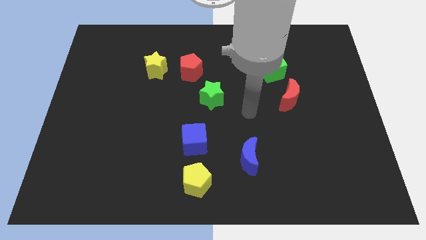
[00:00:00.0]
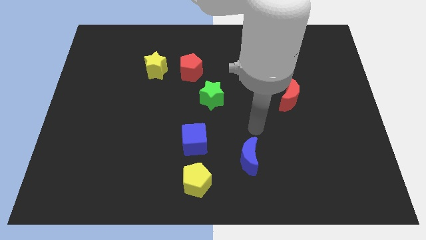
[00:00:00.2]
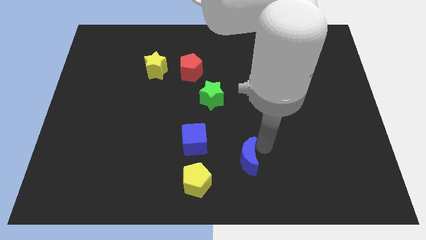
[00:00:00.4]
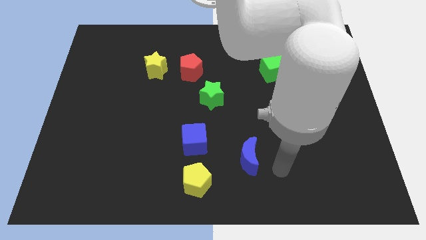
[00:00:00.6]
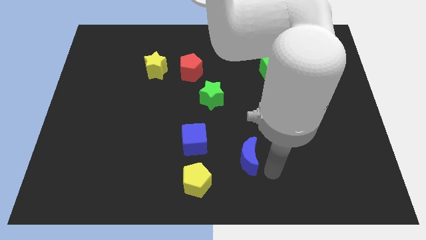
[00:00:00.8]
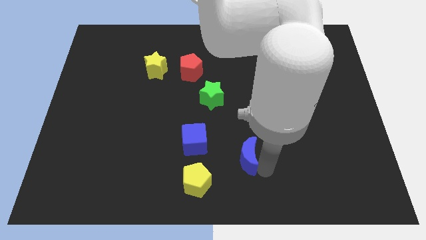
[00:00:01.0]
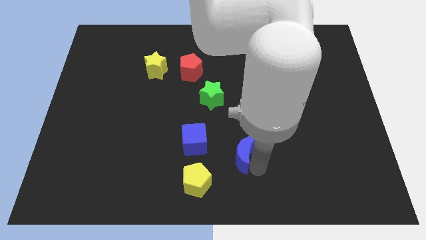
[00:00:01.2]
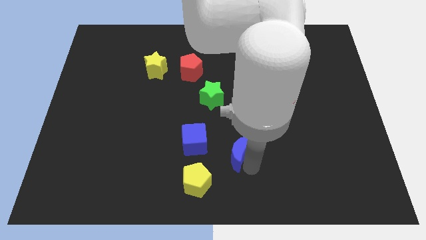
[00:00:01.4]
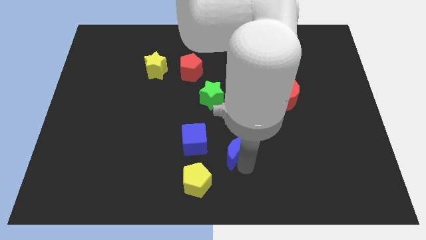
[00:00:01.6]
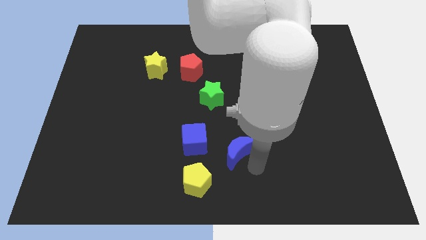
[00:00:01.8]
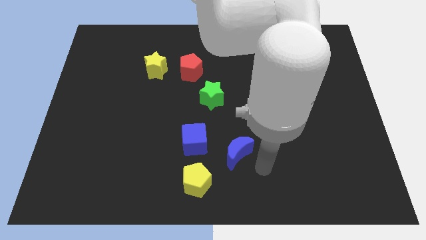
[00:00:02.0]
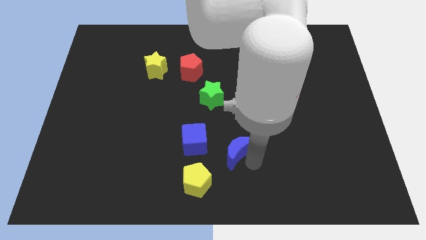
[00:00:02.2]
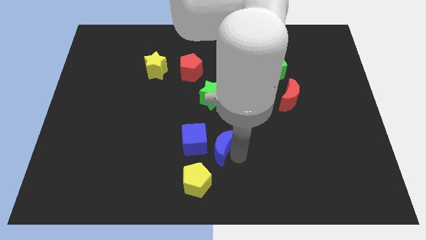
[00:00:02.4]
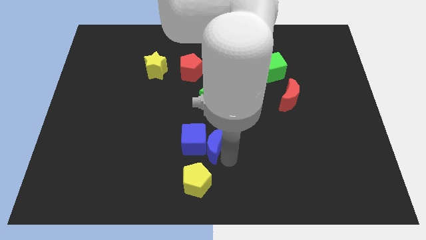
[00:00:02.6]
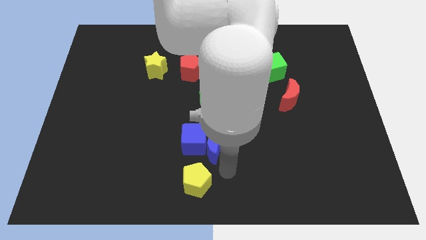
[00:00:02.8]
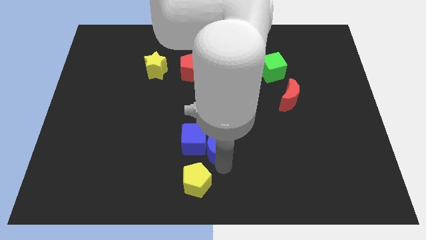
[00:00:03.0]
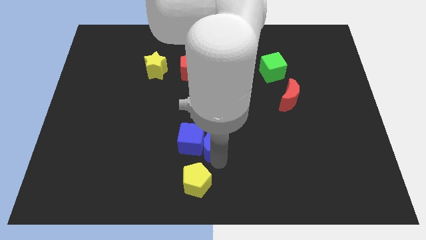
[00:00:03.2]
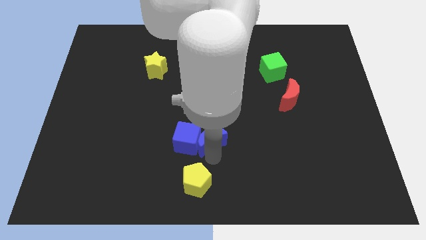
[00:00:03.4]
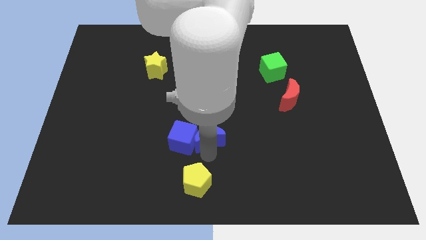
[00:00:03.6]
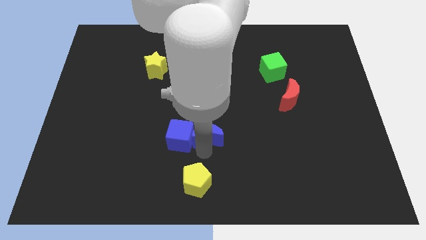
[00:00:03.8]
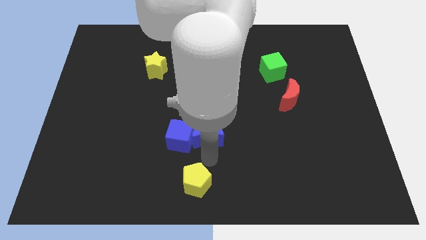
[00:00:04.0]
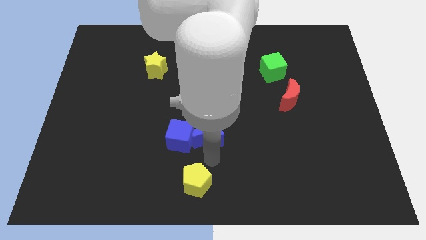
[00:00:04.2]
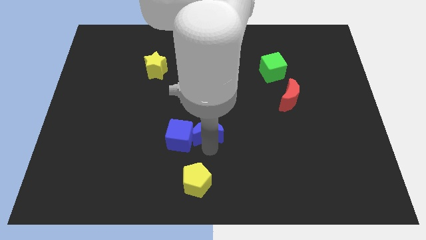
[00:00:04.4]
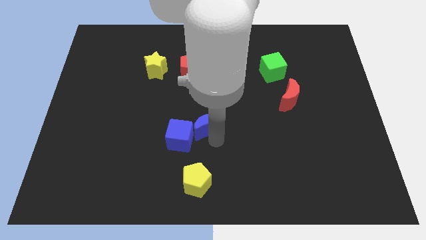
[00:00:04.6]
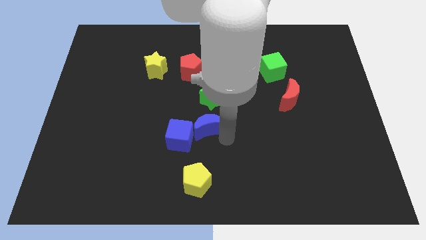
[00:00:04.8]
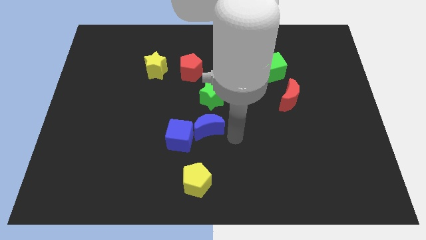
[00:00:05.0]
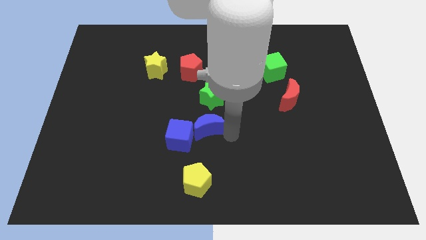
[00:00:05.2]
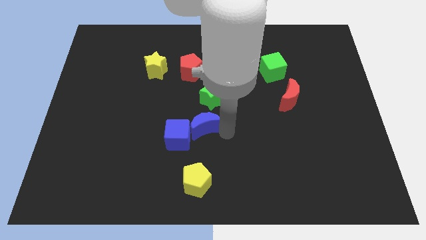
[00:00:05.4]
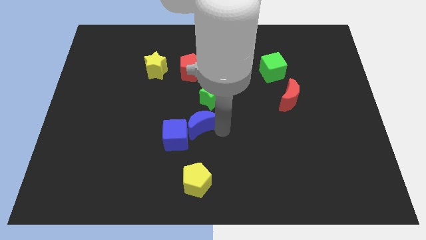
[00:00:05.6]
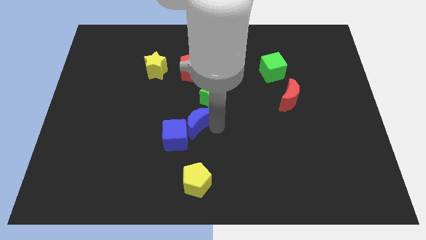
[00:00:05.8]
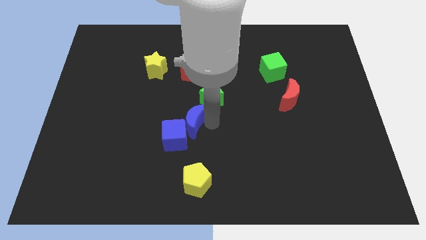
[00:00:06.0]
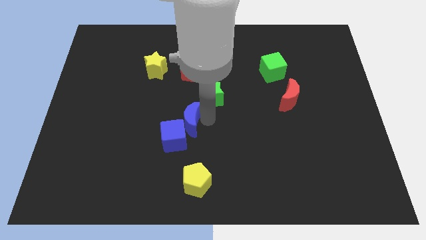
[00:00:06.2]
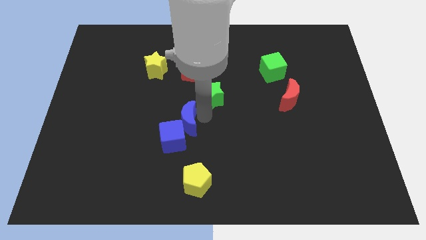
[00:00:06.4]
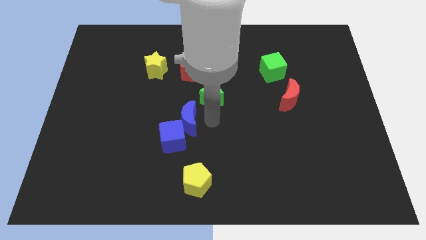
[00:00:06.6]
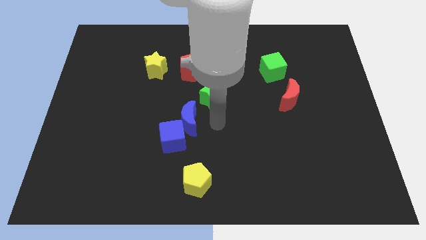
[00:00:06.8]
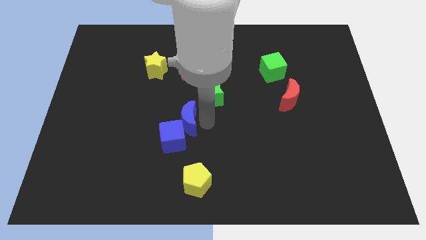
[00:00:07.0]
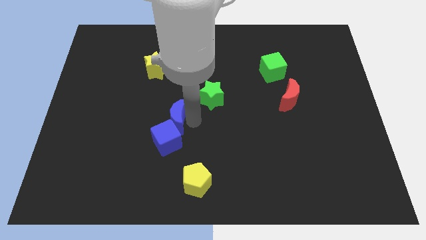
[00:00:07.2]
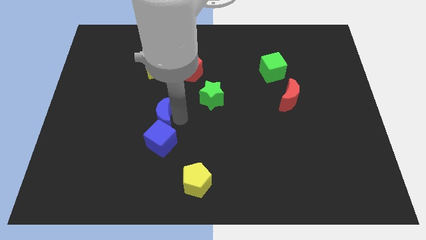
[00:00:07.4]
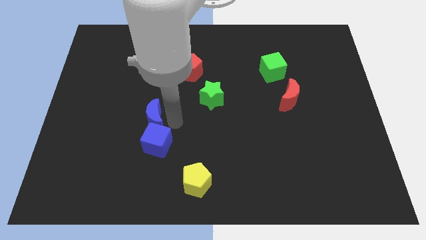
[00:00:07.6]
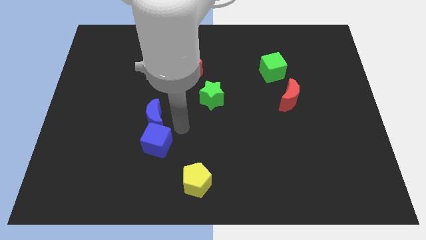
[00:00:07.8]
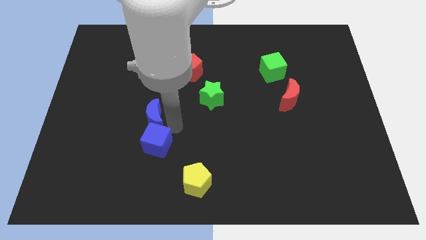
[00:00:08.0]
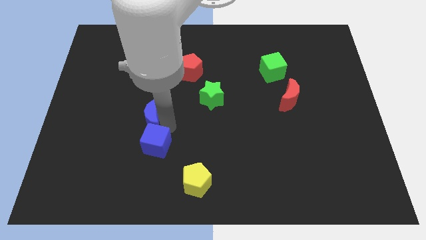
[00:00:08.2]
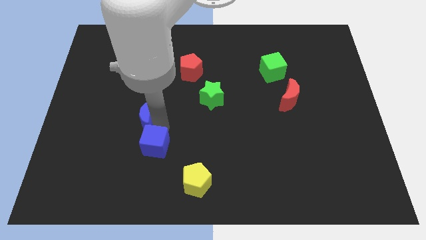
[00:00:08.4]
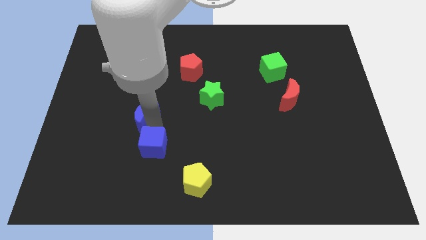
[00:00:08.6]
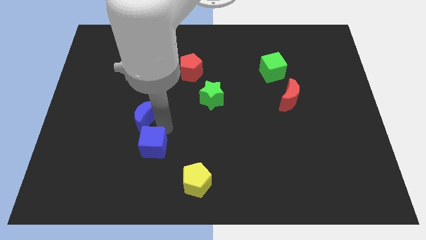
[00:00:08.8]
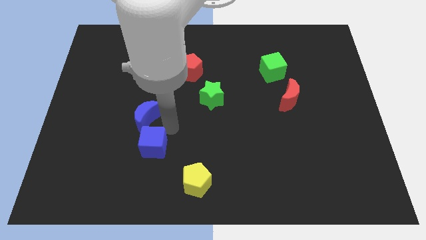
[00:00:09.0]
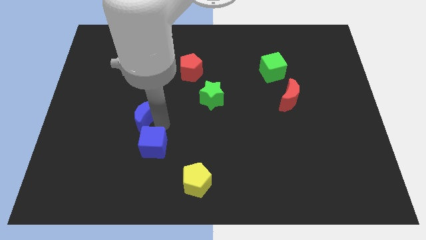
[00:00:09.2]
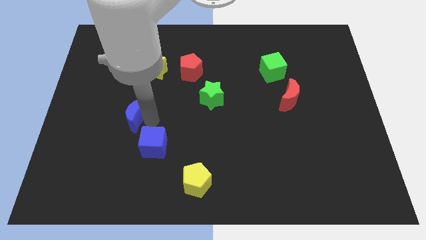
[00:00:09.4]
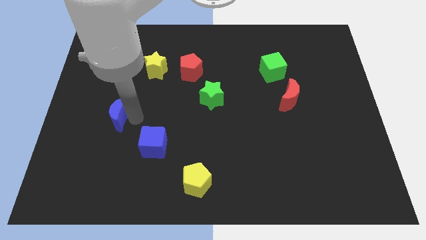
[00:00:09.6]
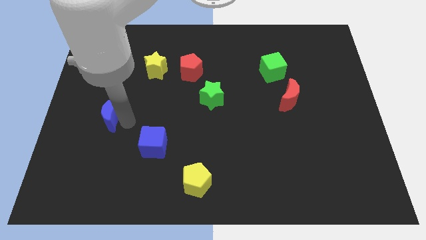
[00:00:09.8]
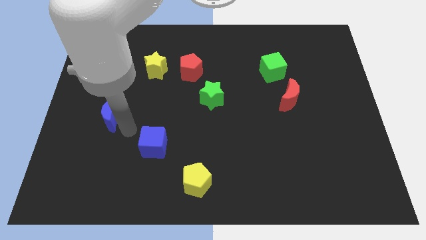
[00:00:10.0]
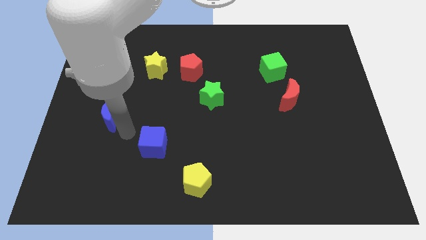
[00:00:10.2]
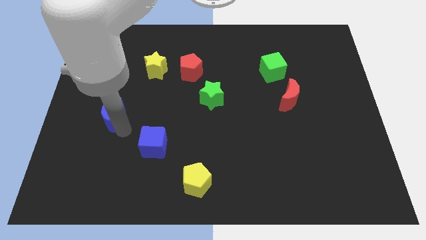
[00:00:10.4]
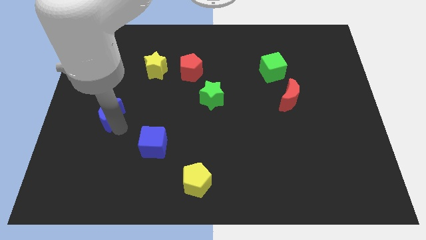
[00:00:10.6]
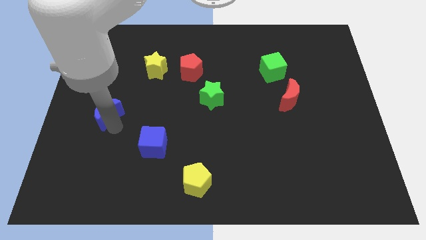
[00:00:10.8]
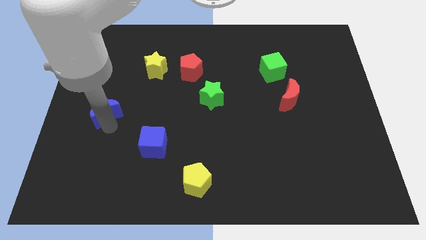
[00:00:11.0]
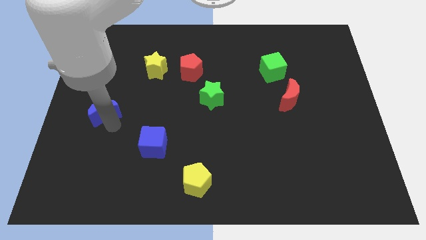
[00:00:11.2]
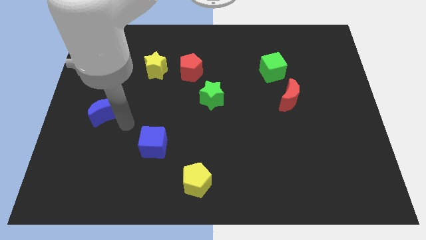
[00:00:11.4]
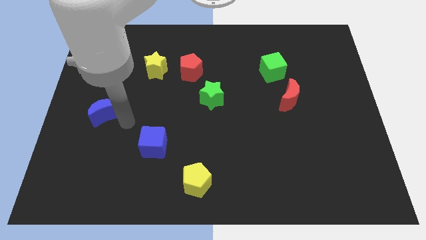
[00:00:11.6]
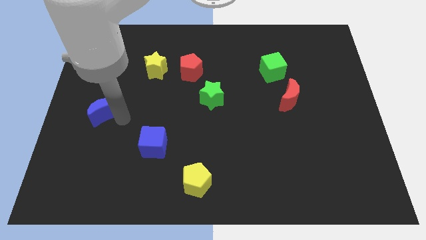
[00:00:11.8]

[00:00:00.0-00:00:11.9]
slide the blue moon to the center left

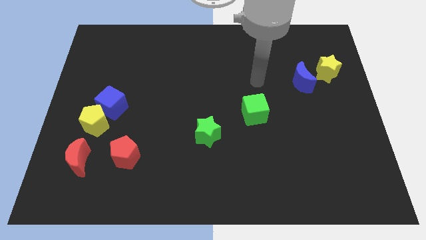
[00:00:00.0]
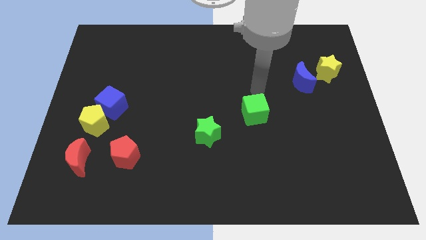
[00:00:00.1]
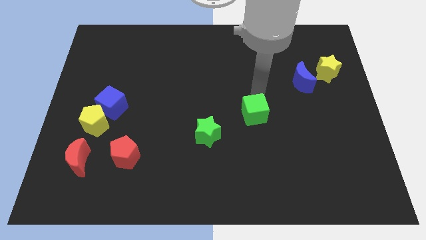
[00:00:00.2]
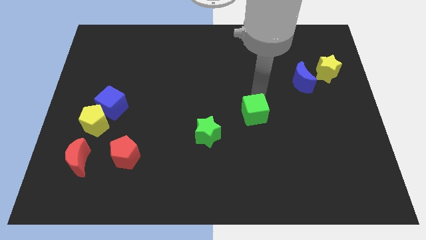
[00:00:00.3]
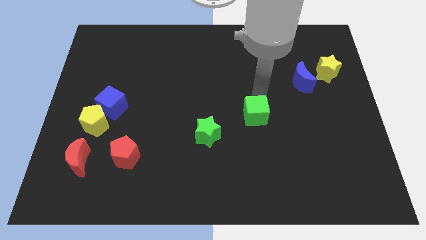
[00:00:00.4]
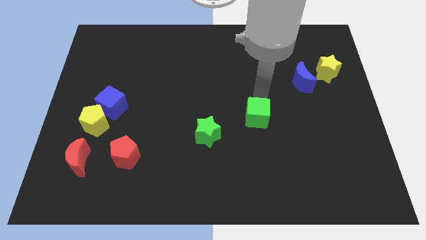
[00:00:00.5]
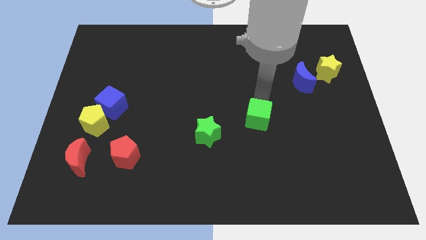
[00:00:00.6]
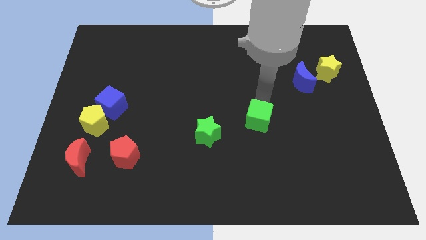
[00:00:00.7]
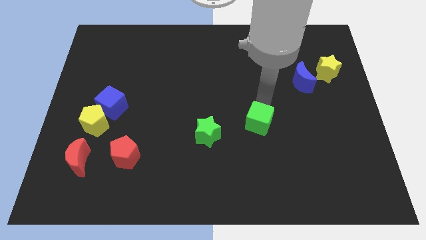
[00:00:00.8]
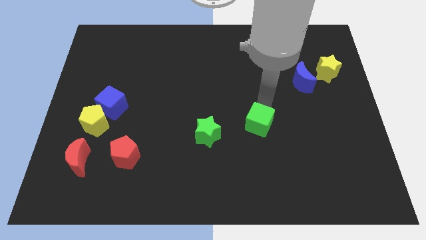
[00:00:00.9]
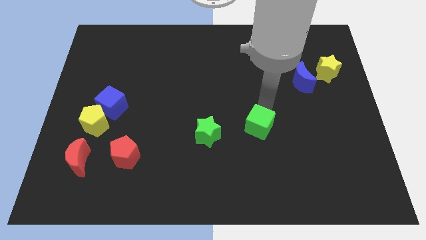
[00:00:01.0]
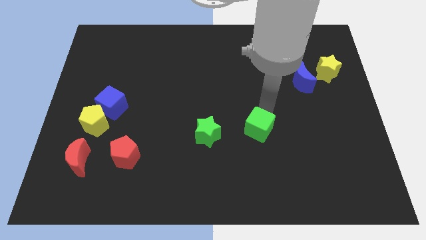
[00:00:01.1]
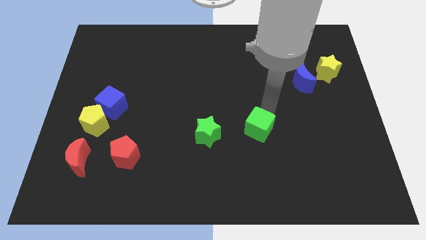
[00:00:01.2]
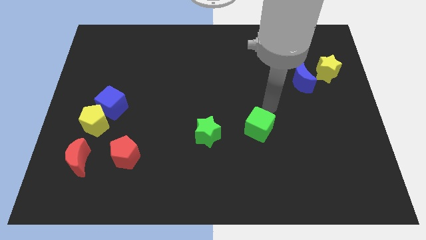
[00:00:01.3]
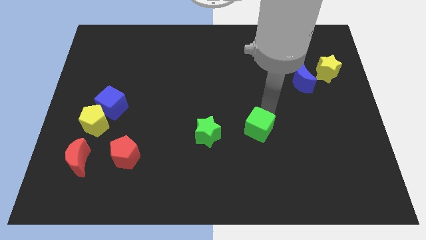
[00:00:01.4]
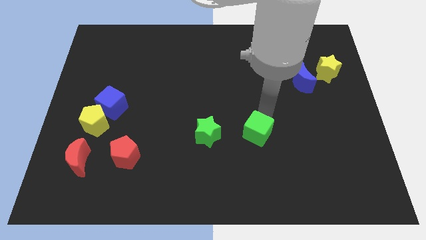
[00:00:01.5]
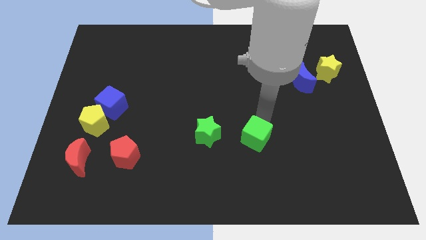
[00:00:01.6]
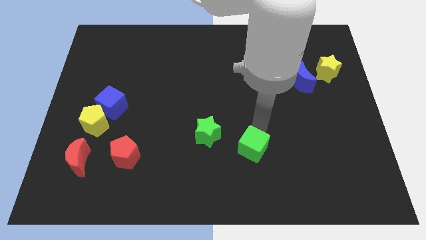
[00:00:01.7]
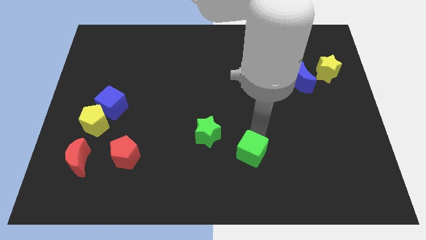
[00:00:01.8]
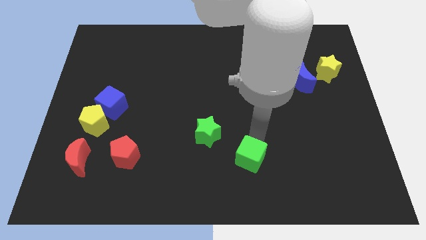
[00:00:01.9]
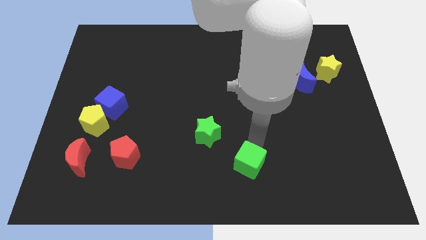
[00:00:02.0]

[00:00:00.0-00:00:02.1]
slide the green cube to the bottom

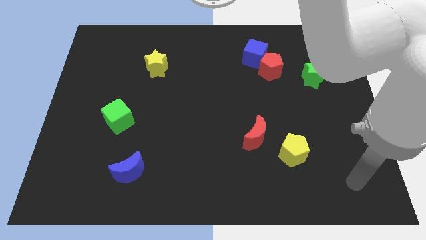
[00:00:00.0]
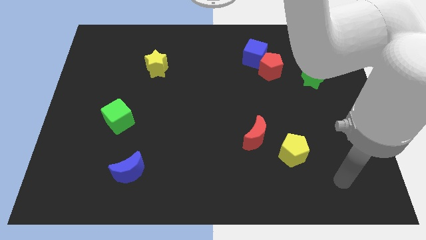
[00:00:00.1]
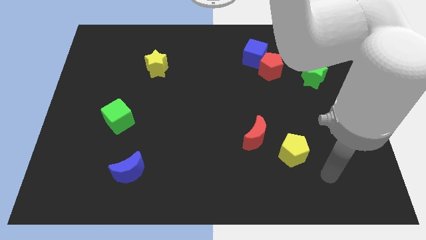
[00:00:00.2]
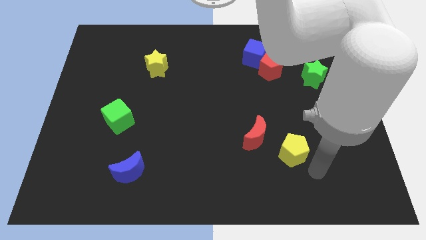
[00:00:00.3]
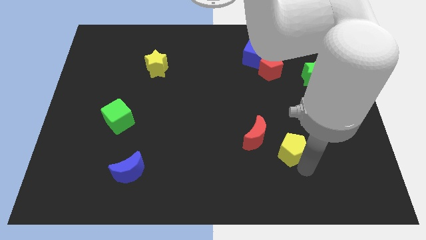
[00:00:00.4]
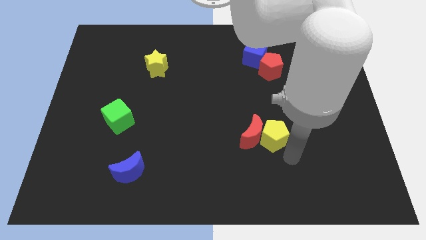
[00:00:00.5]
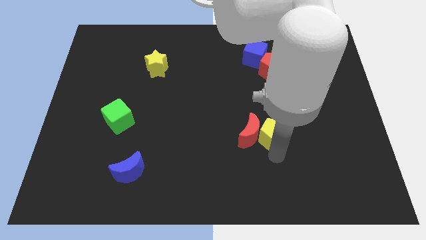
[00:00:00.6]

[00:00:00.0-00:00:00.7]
move the red moon to the middle of the board
